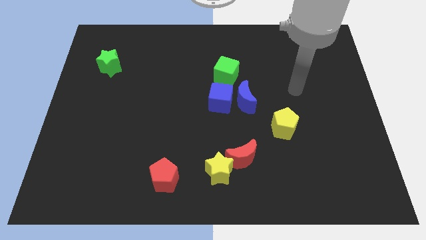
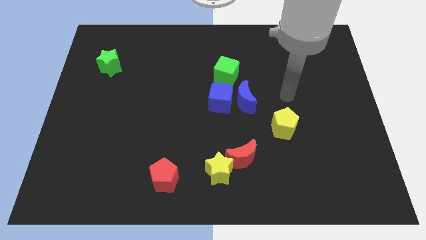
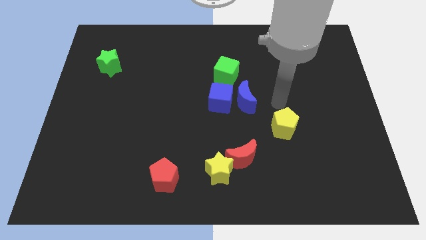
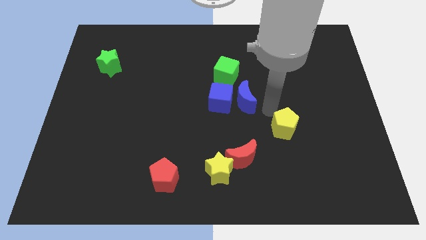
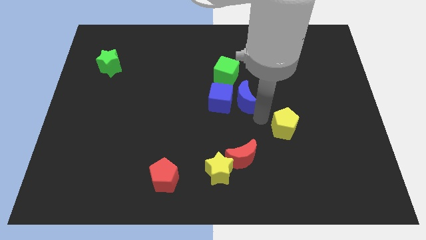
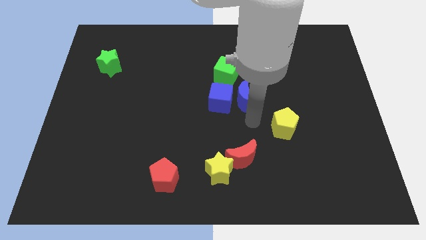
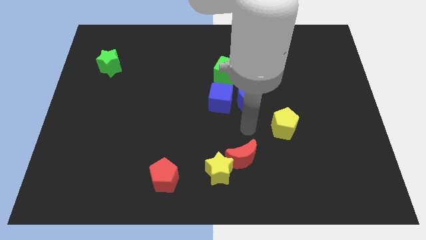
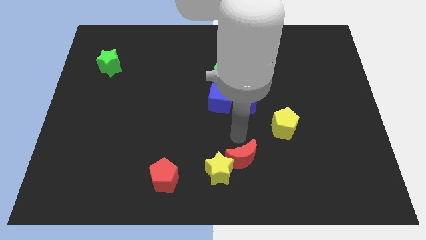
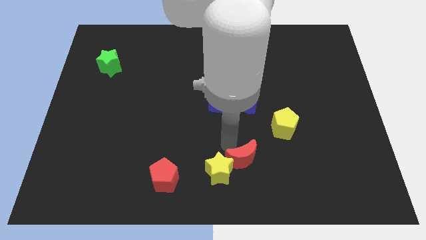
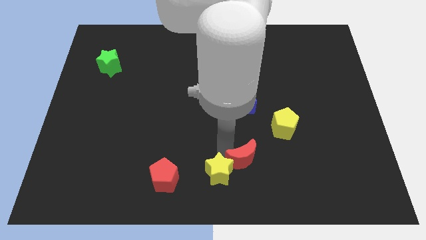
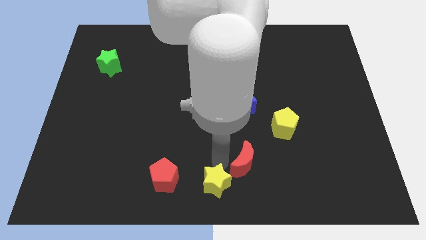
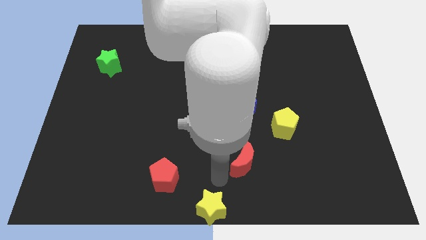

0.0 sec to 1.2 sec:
move the red moon away from the yellow star

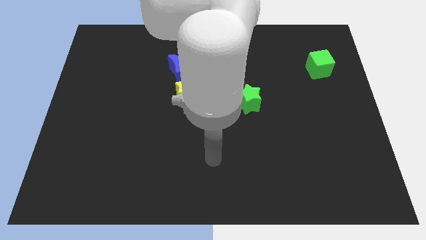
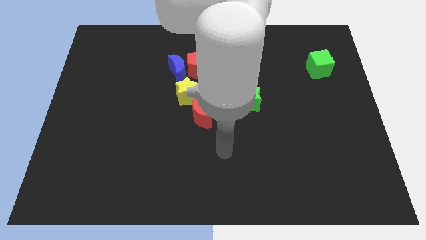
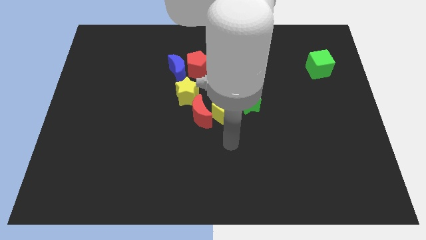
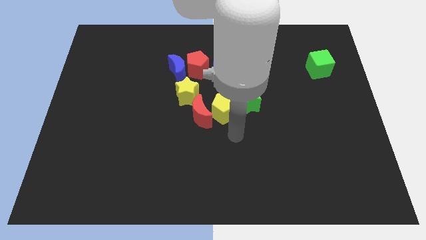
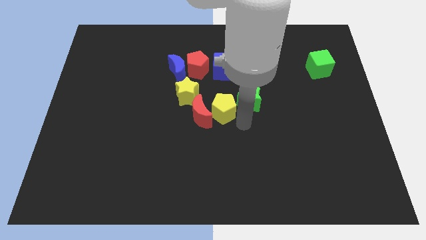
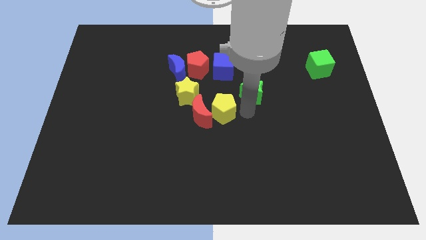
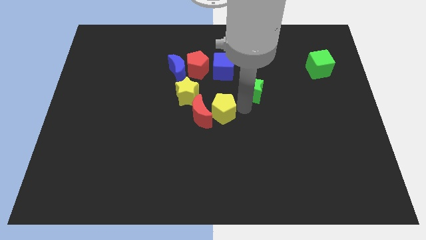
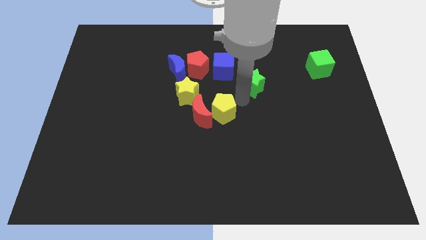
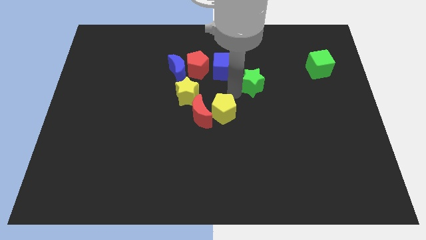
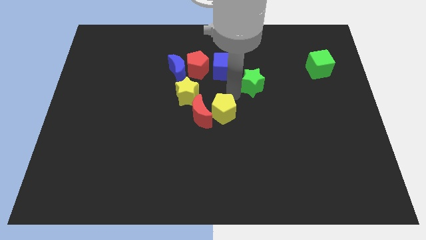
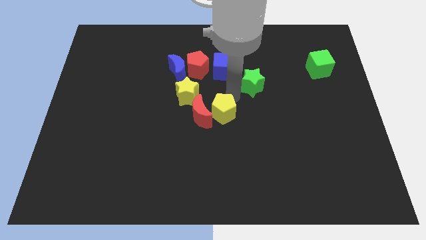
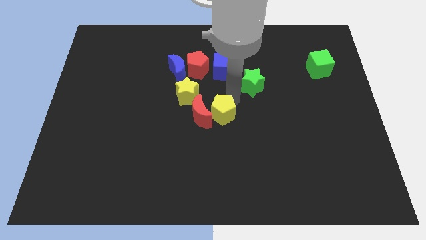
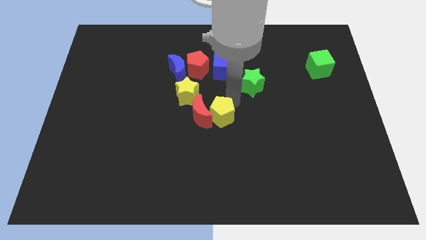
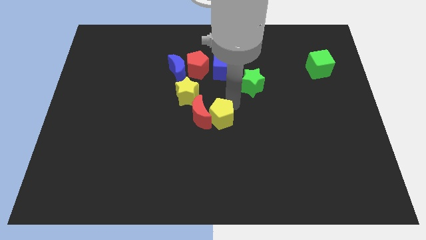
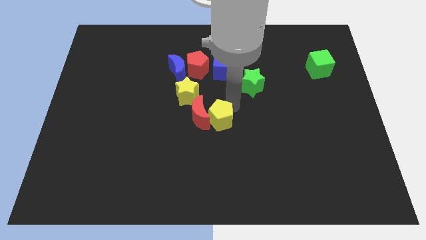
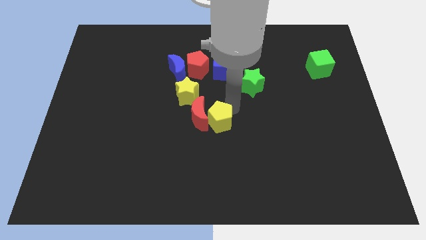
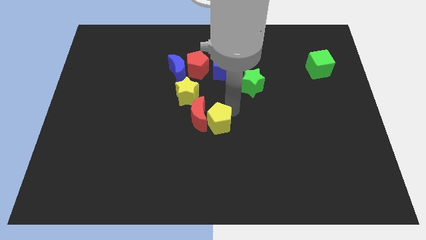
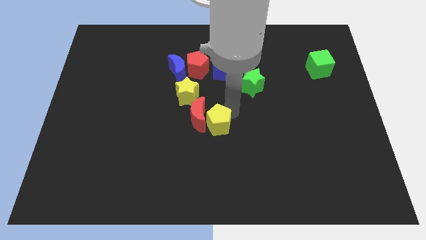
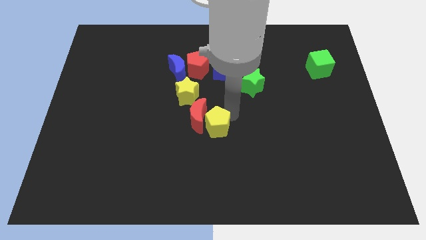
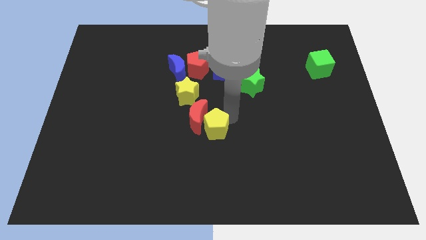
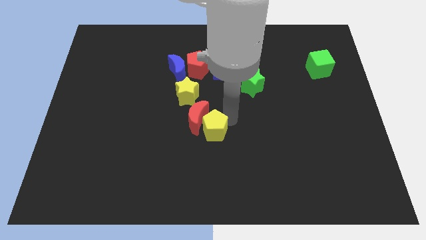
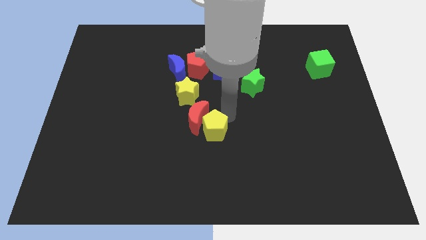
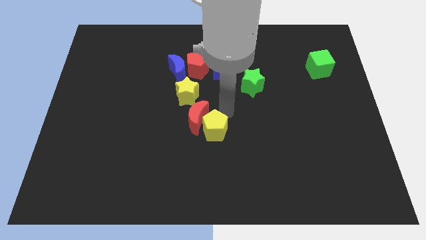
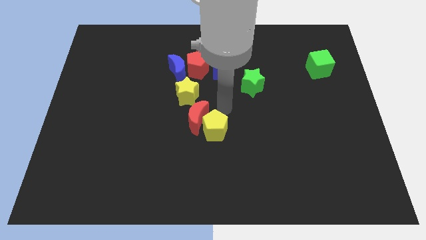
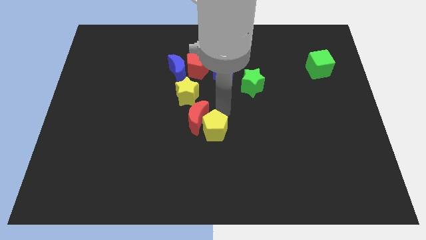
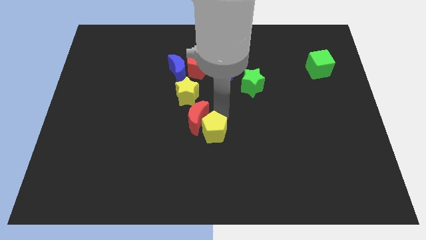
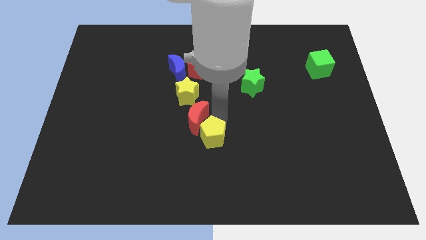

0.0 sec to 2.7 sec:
separate the yellow pentagon from the red moon and green star

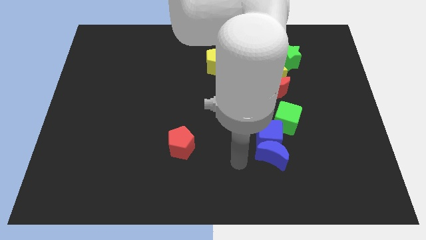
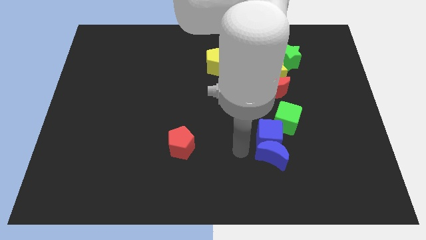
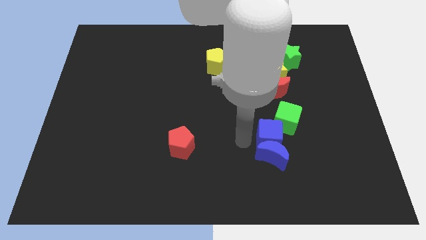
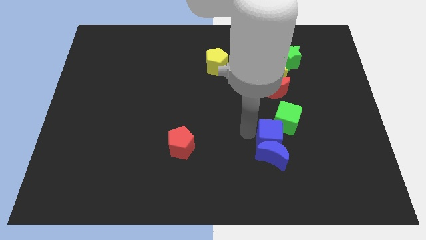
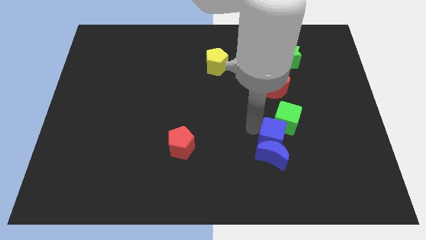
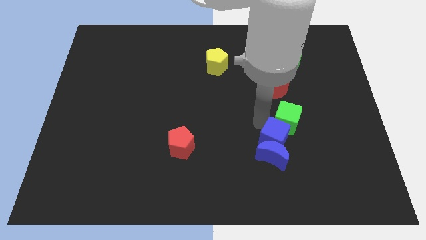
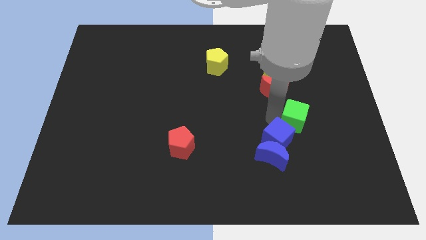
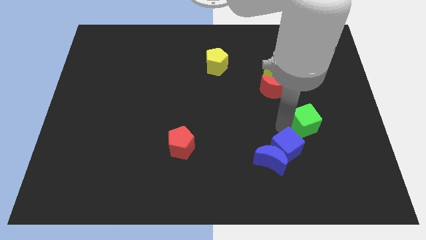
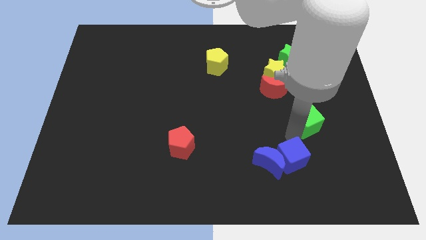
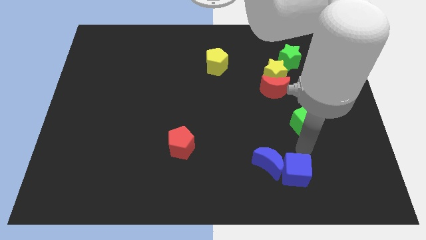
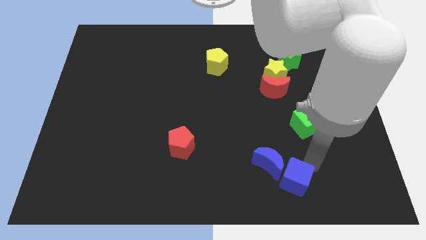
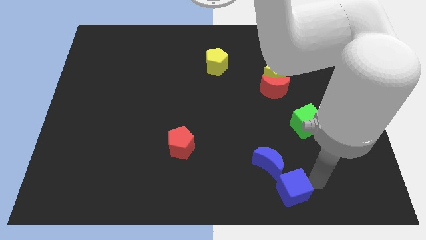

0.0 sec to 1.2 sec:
separate the blue cube from the blue moon and green cube

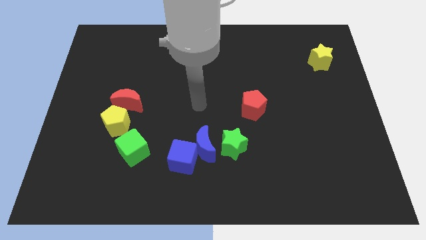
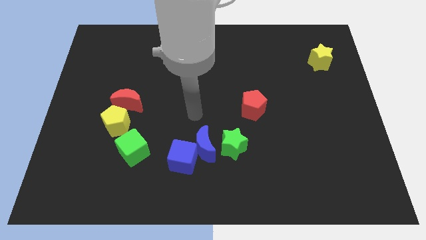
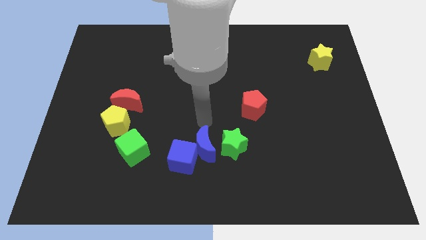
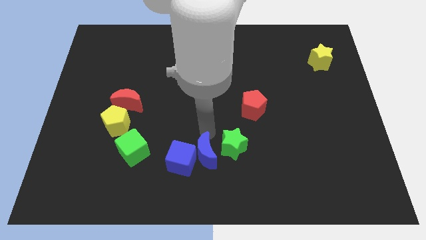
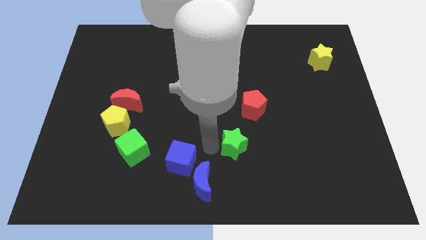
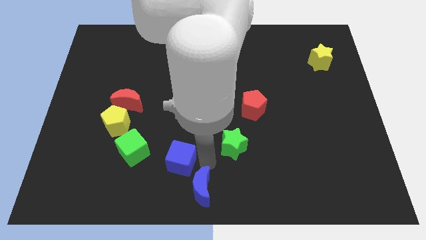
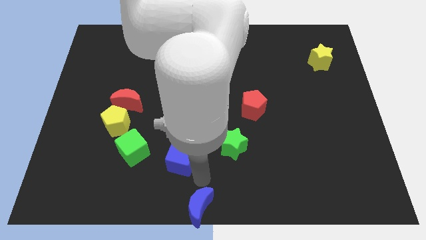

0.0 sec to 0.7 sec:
move the blue cube away from the blue moon

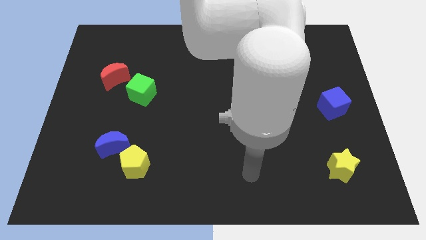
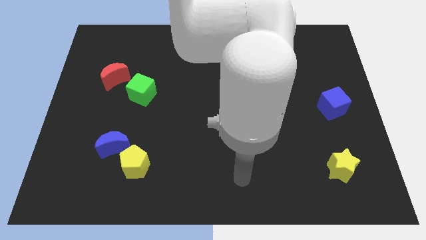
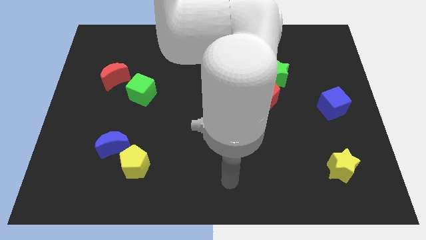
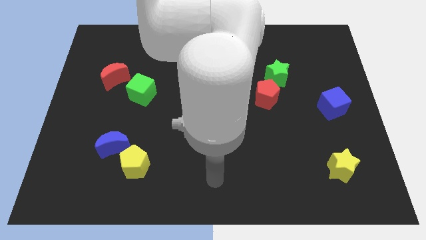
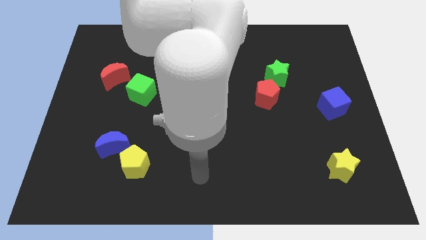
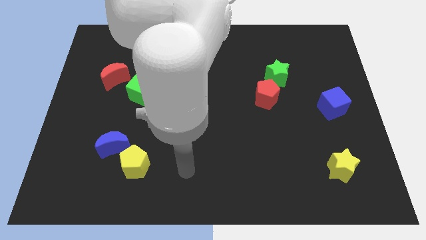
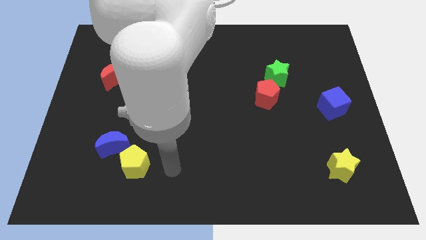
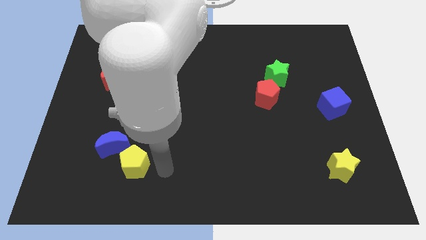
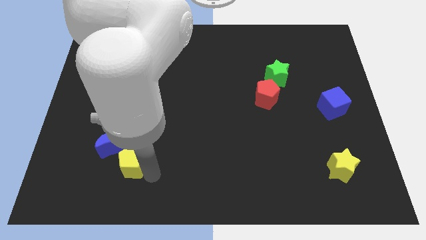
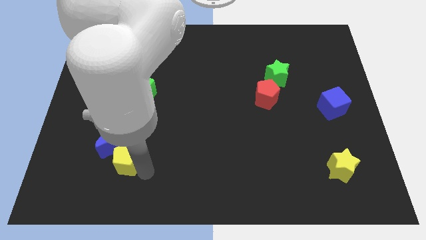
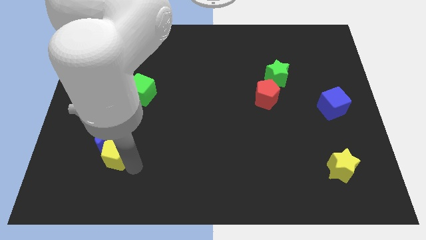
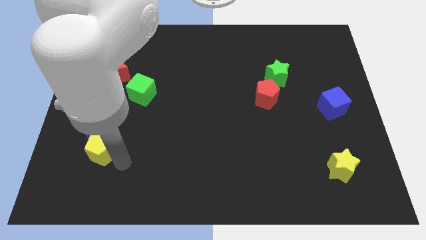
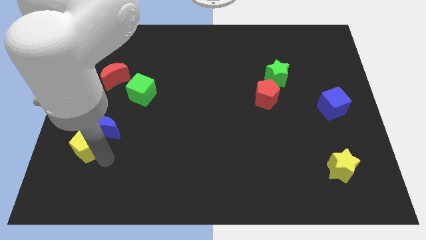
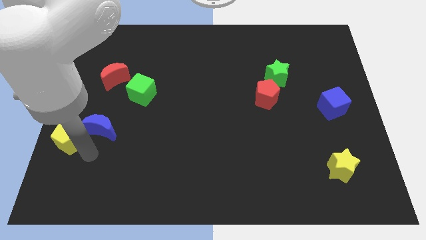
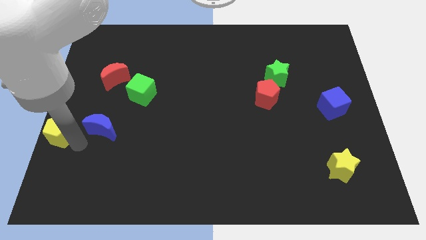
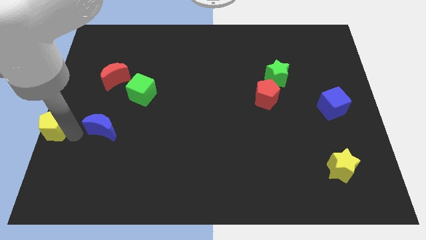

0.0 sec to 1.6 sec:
separate the blue moon from the yellow pentagon

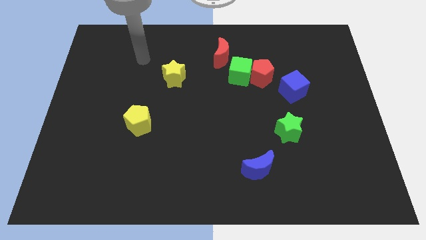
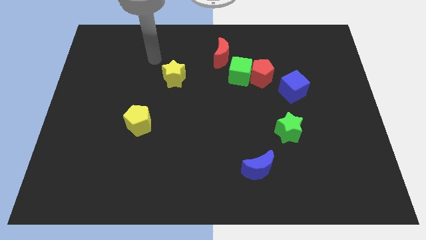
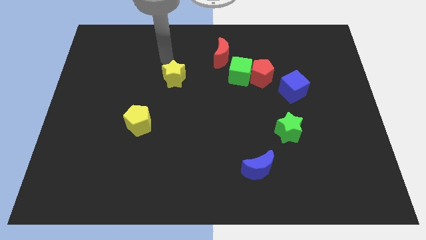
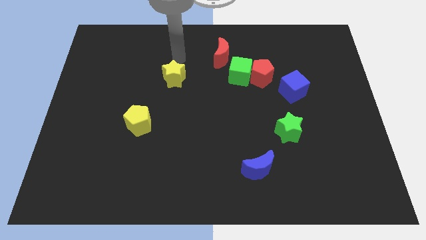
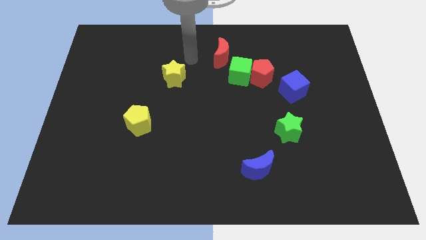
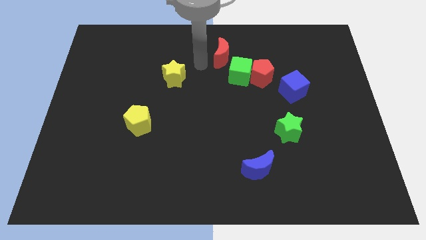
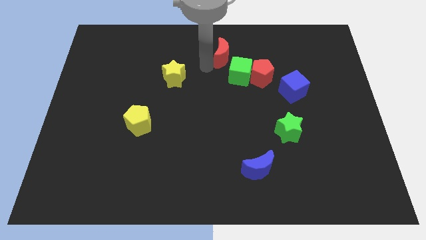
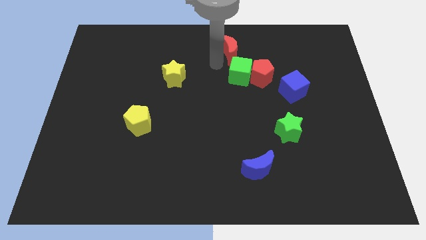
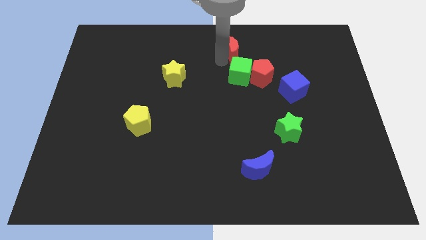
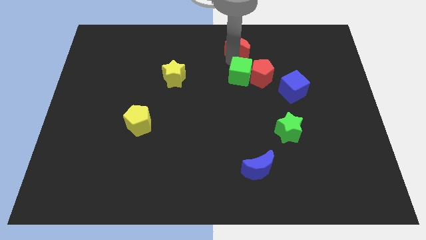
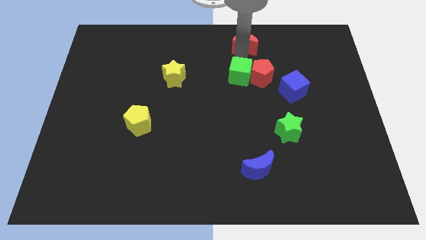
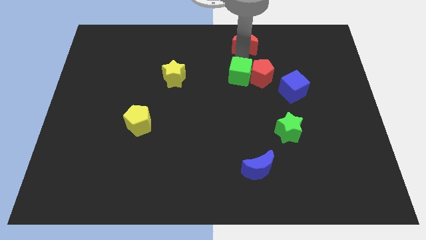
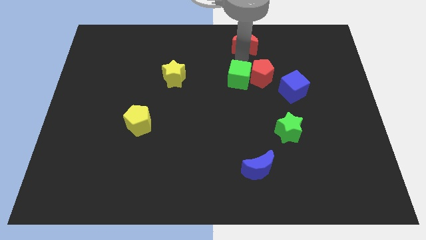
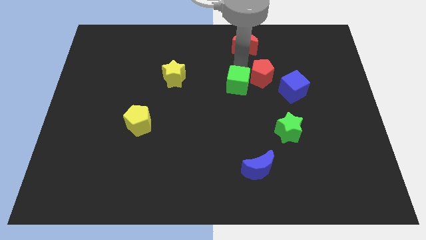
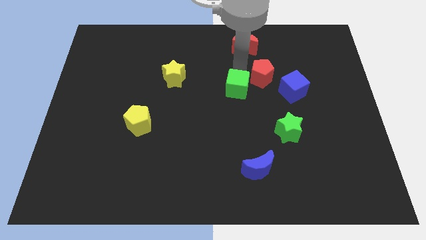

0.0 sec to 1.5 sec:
pull the green cube apart from the red pentagon and red moon

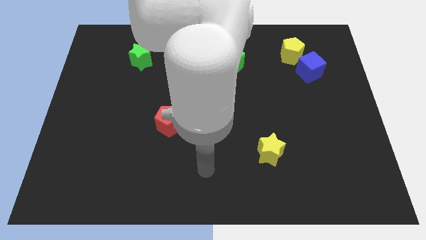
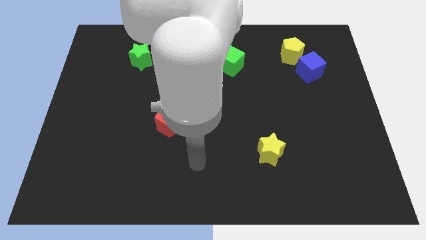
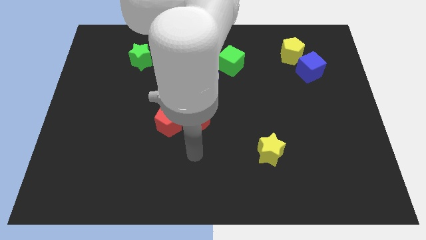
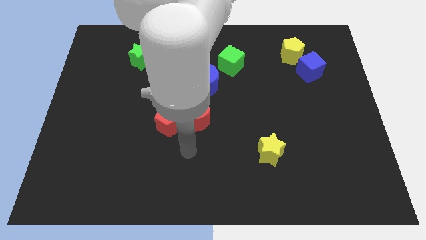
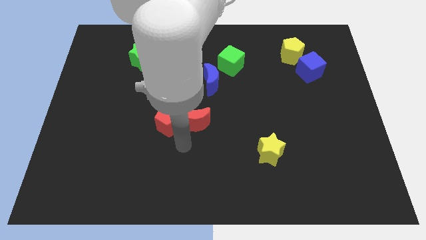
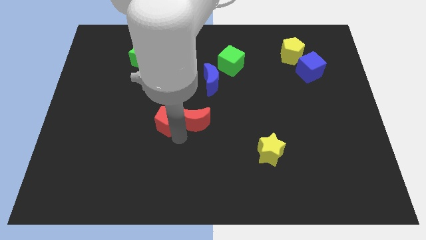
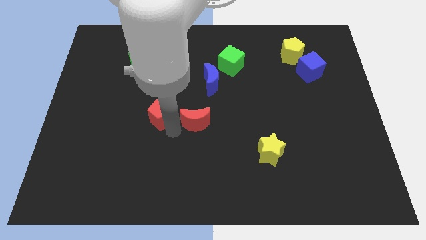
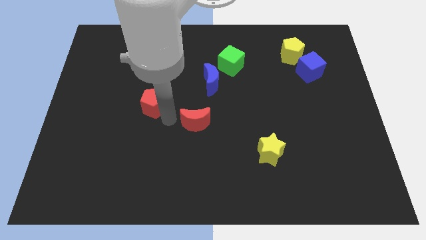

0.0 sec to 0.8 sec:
separate the red moon from the red pentagon
